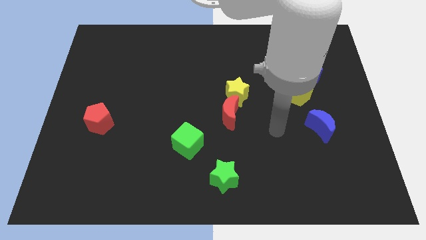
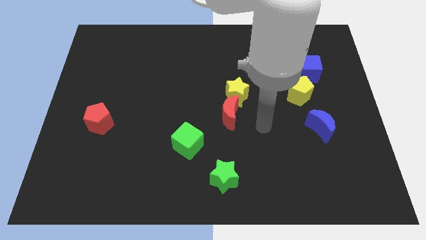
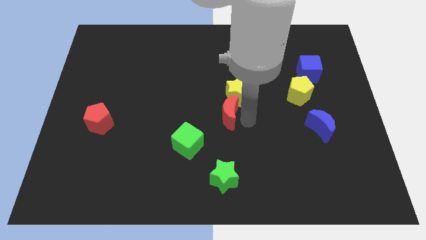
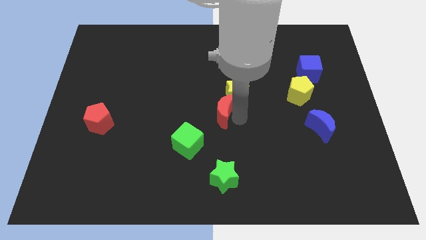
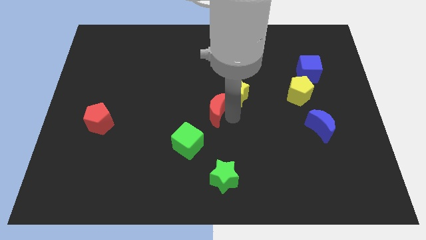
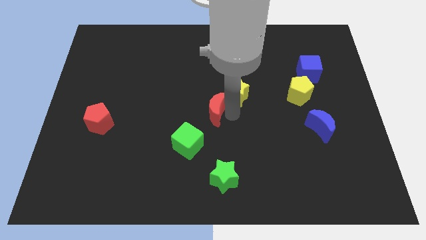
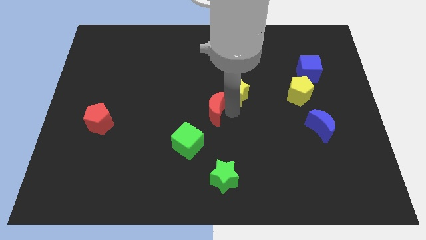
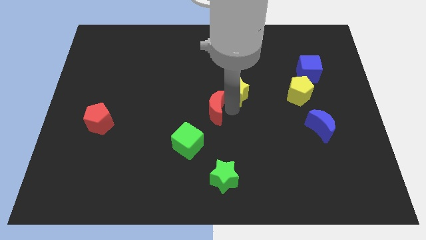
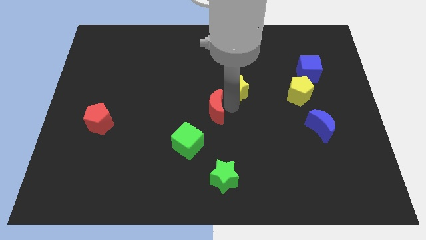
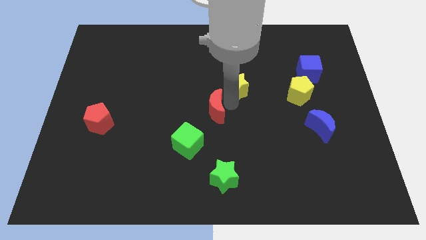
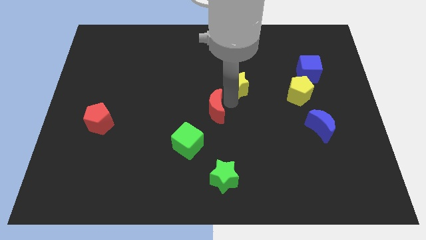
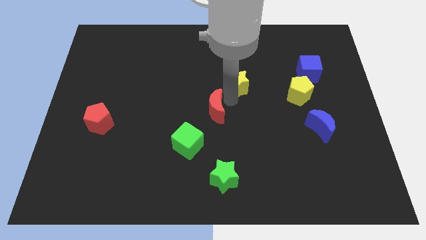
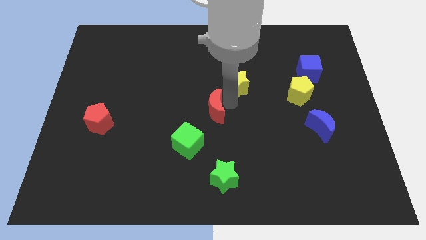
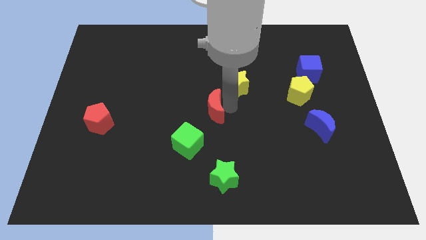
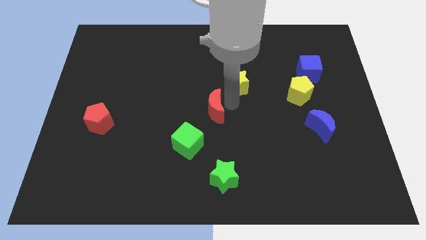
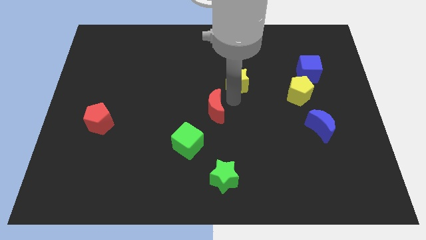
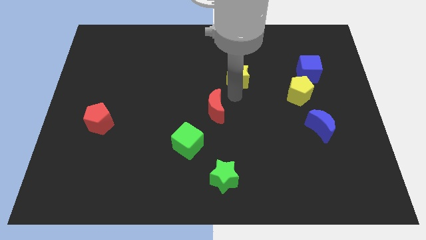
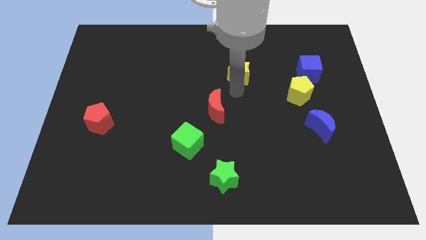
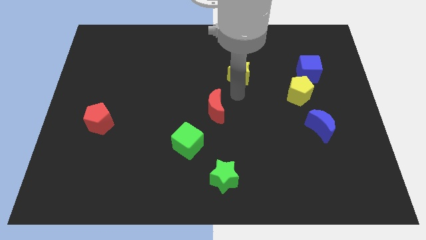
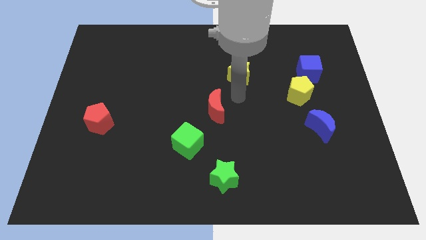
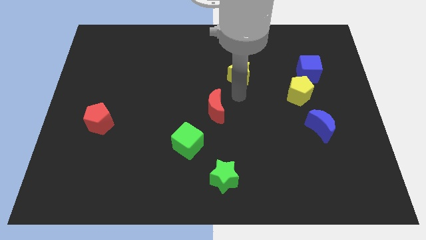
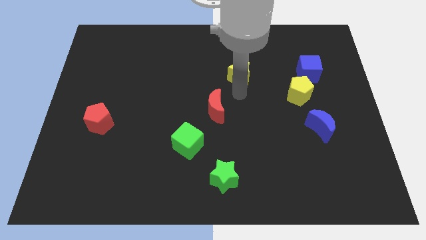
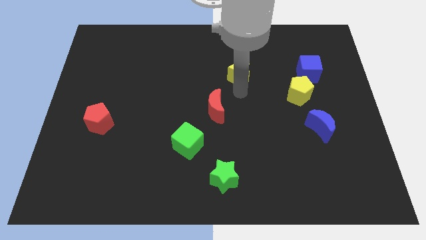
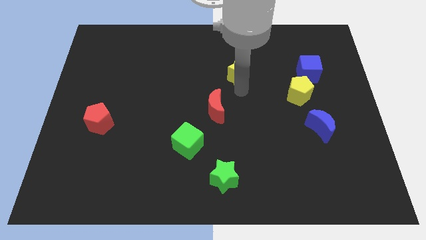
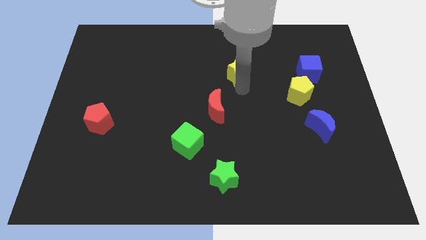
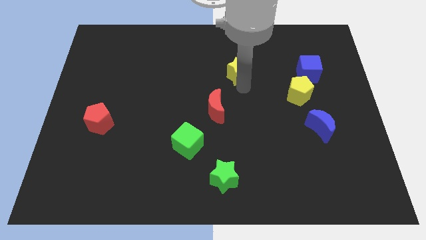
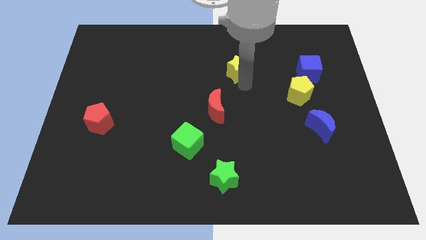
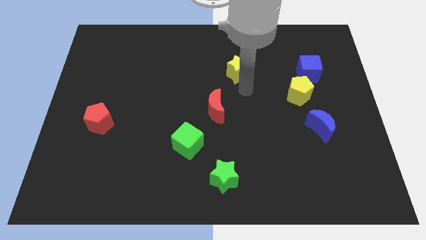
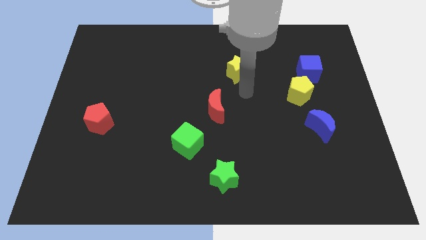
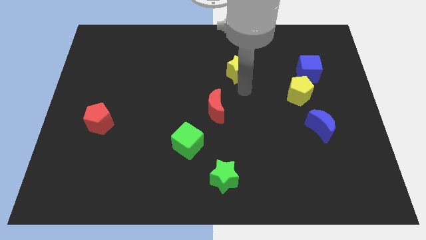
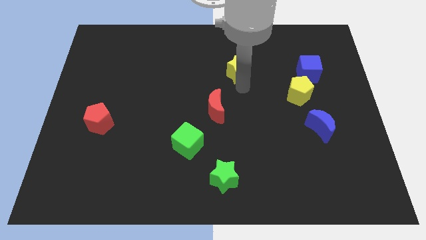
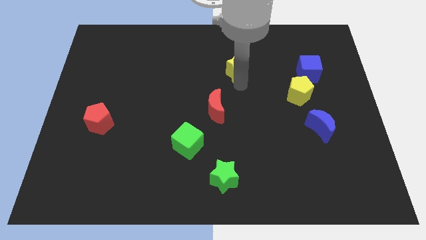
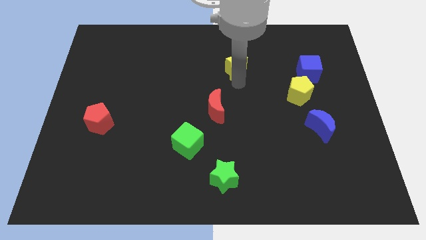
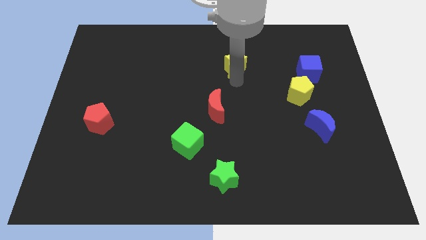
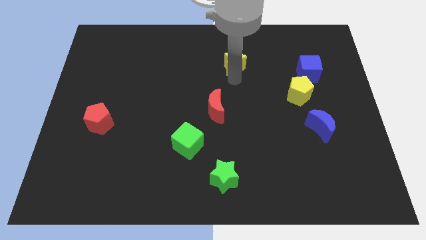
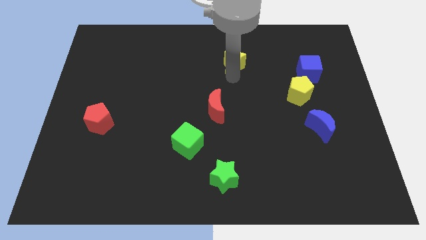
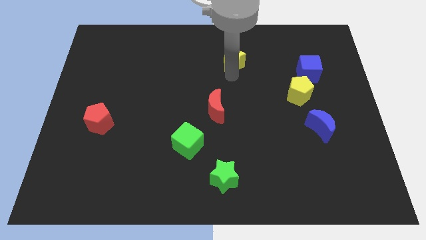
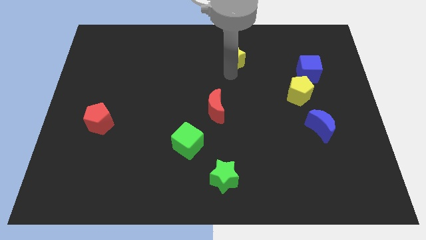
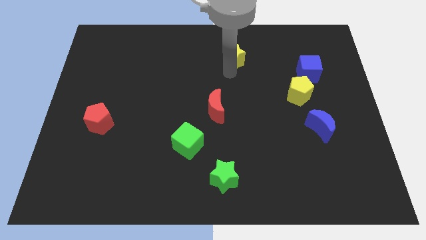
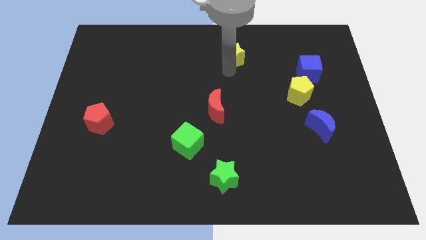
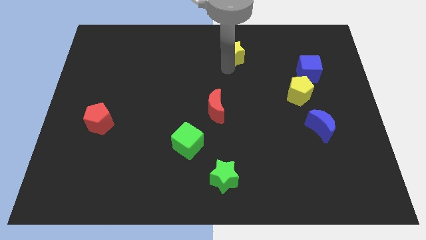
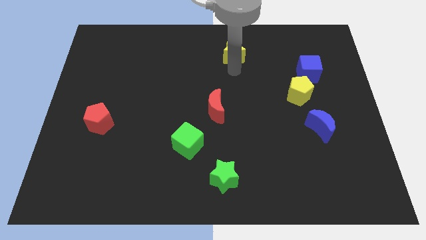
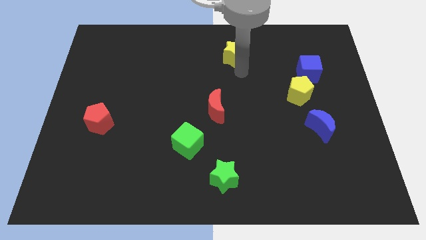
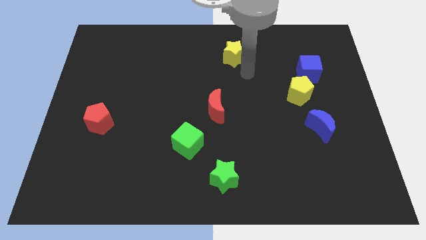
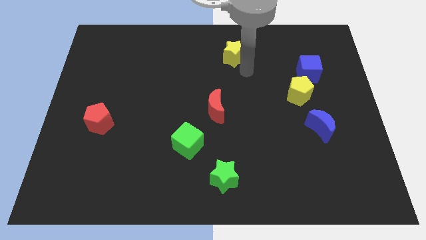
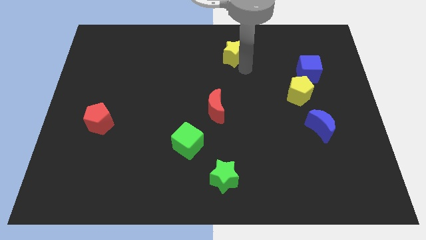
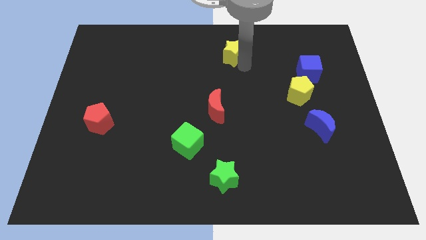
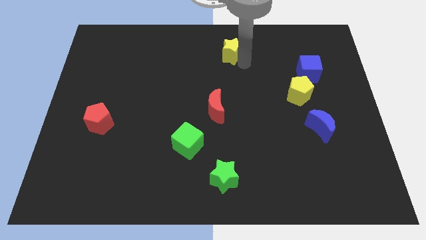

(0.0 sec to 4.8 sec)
push the yellow star to the towards your base

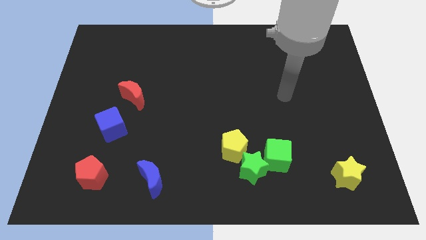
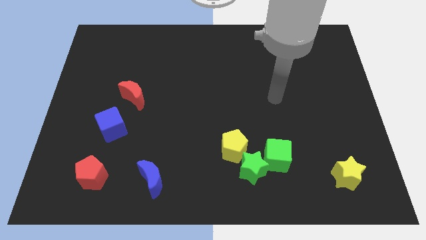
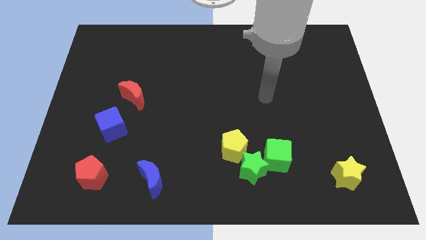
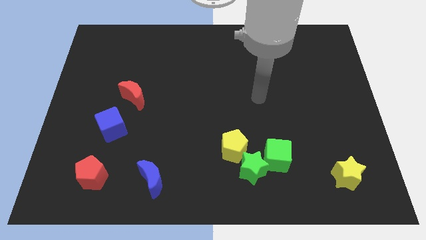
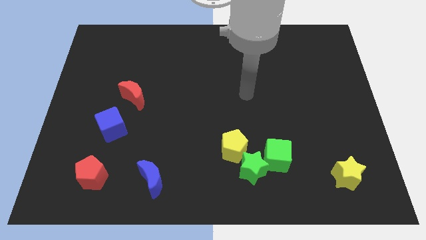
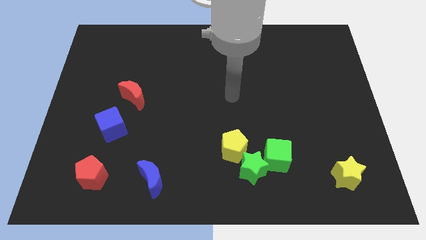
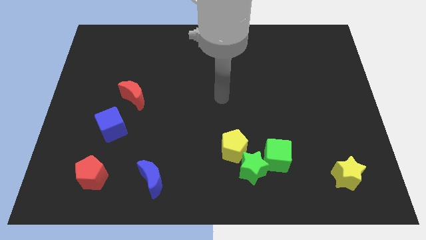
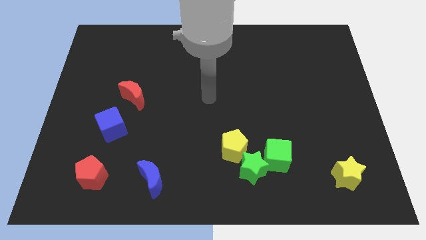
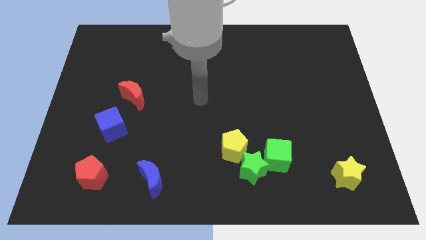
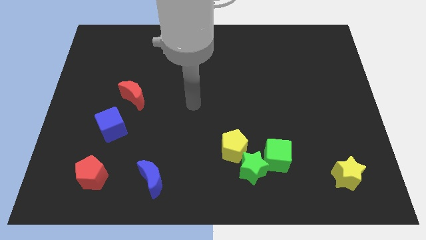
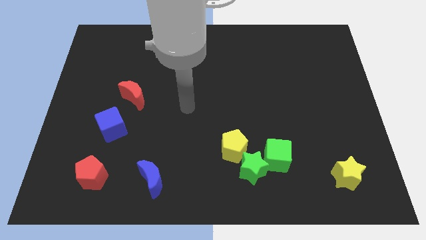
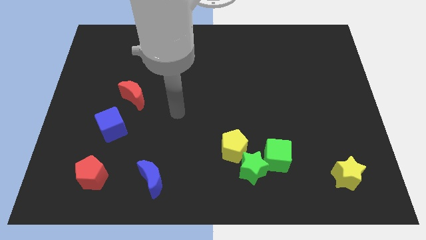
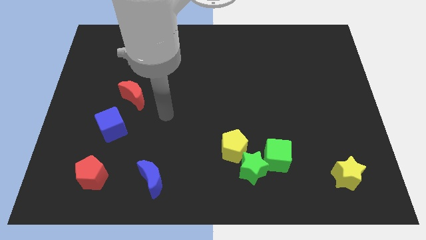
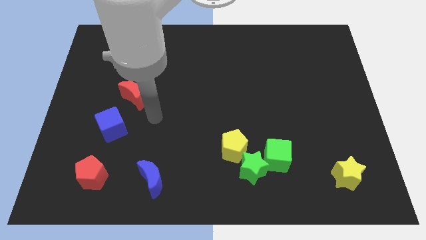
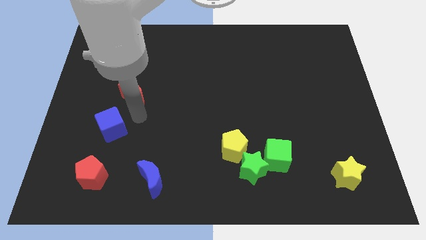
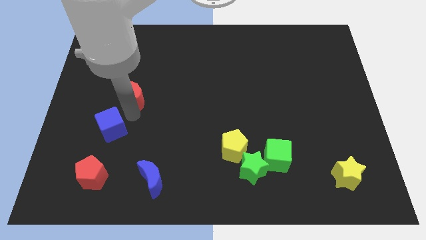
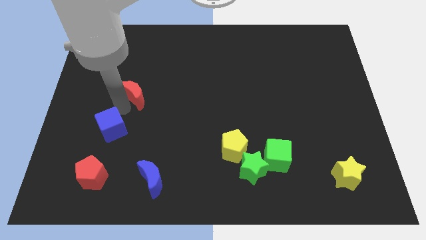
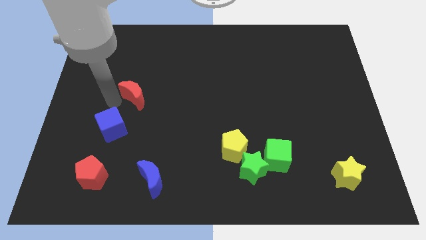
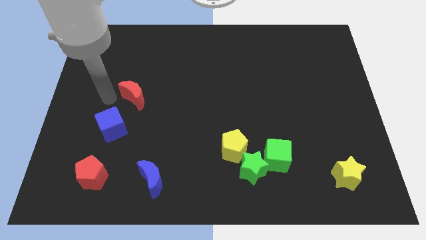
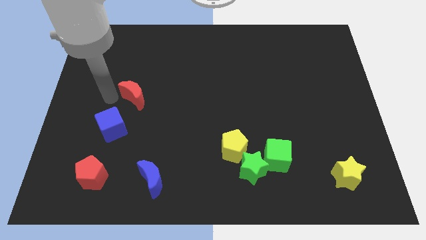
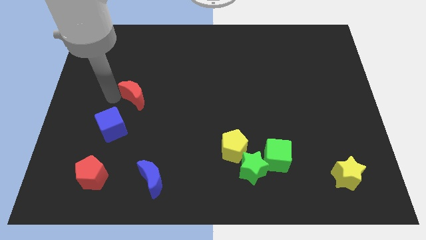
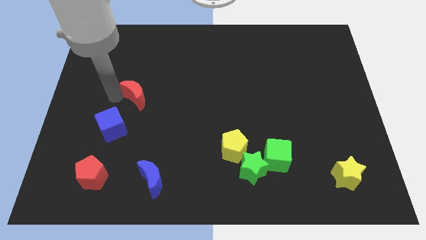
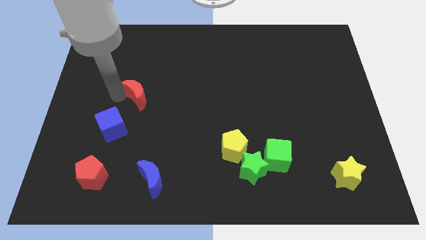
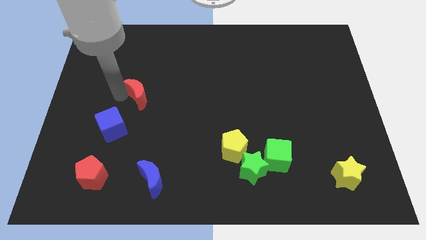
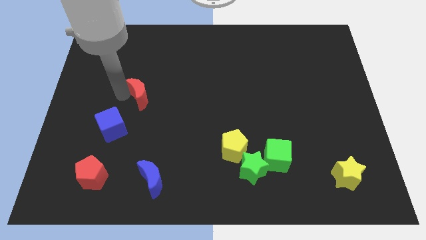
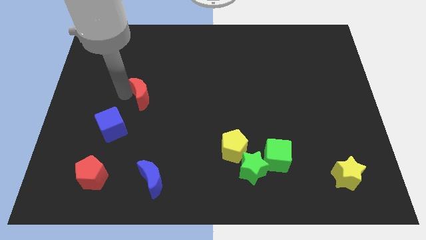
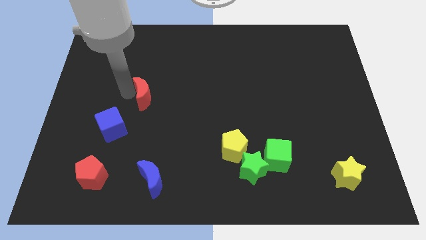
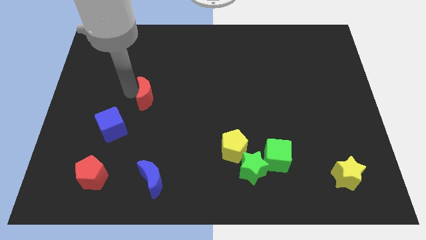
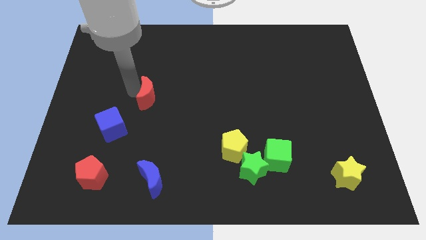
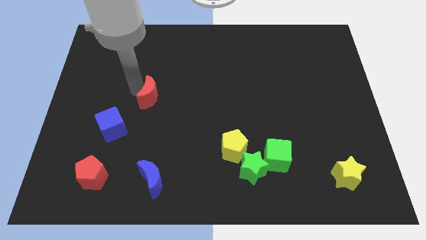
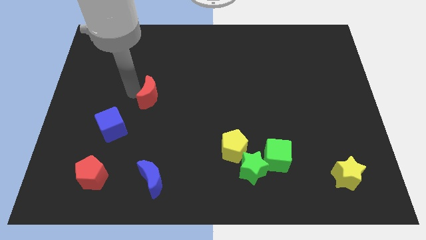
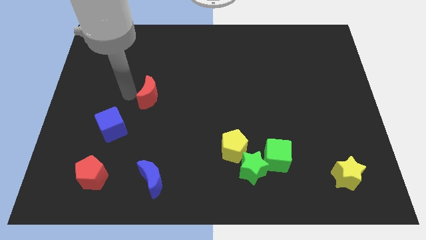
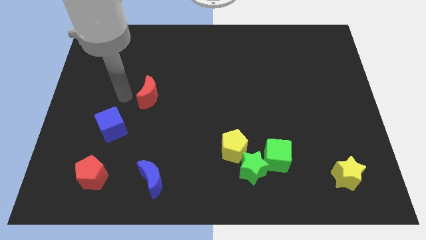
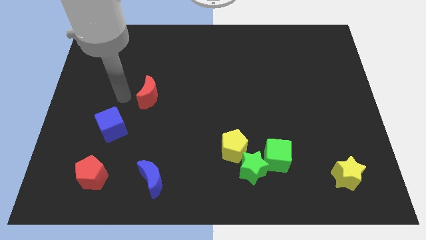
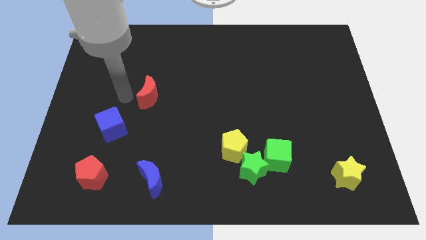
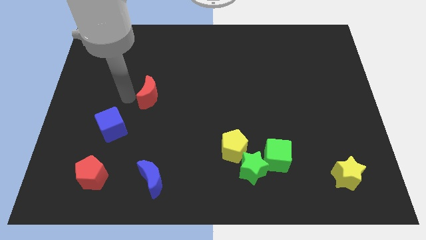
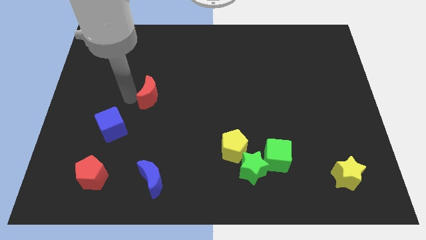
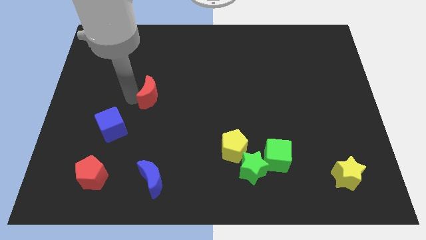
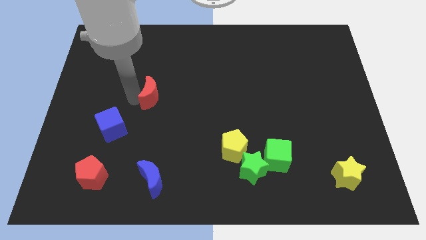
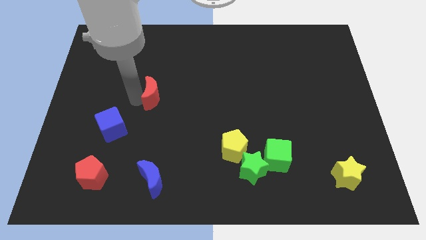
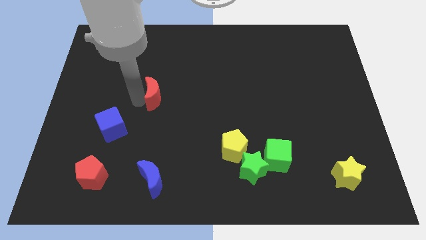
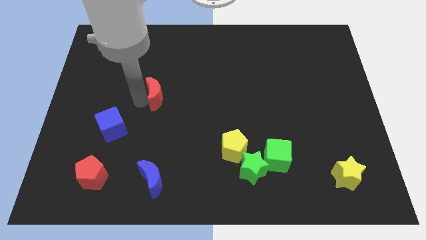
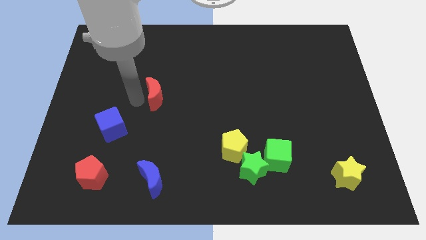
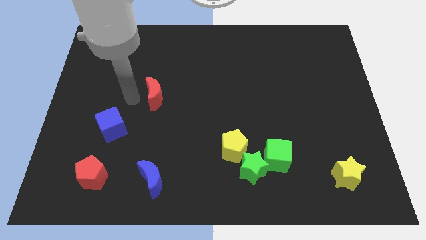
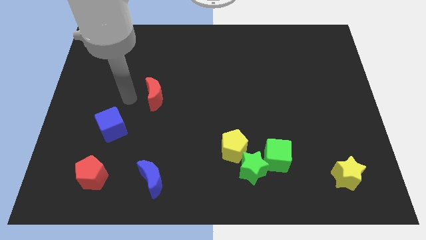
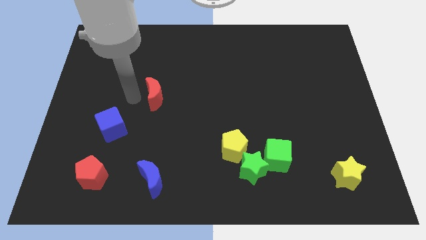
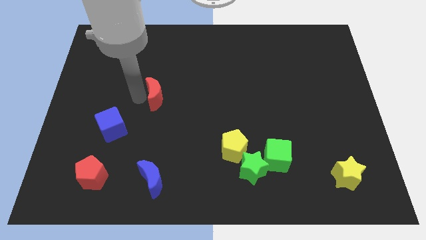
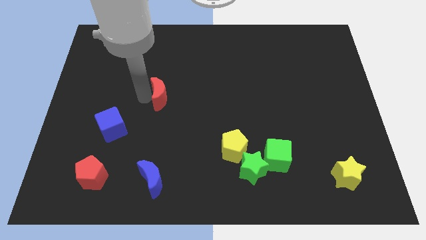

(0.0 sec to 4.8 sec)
push the red moon to the center
